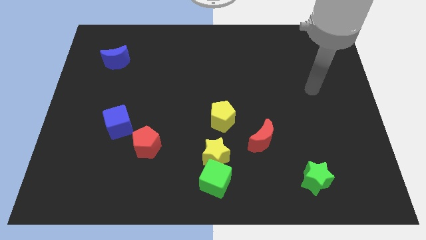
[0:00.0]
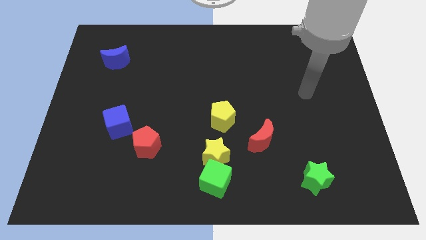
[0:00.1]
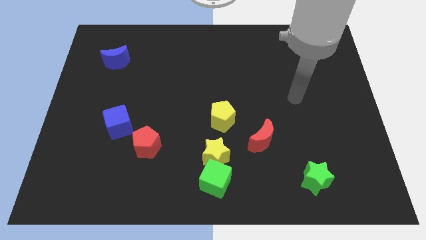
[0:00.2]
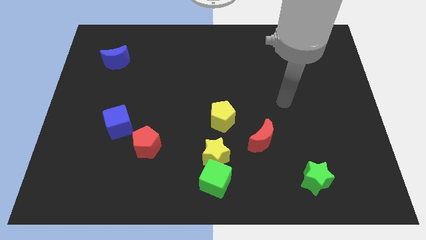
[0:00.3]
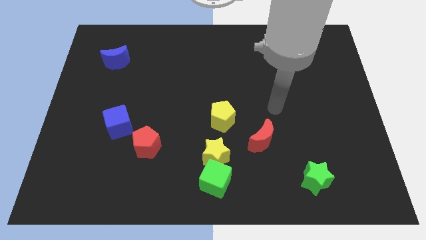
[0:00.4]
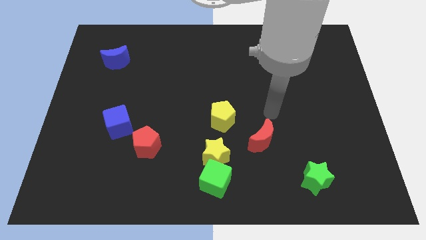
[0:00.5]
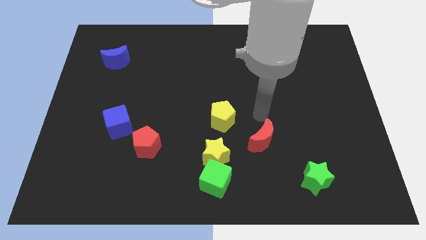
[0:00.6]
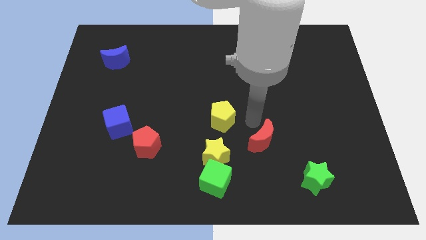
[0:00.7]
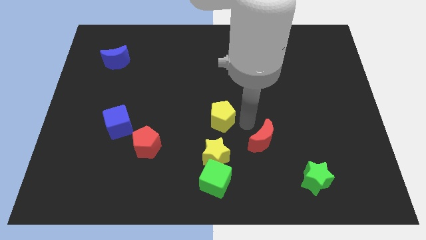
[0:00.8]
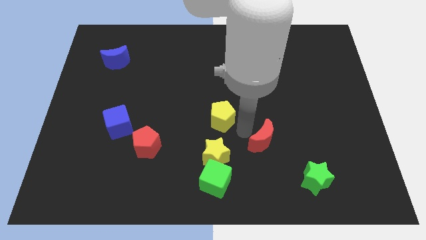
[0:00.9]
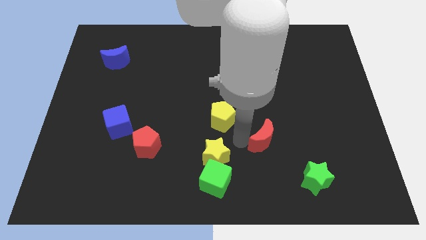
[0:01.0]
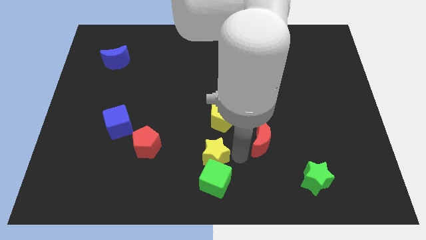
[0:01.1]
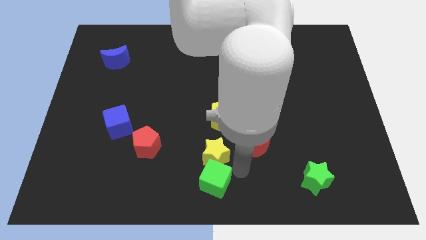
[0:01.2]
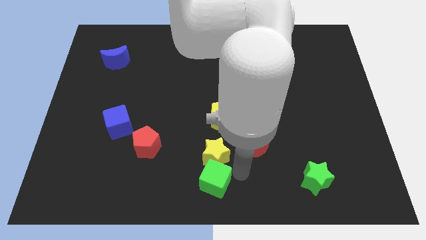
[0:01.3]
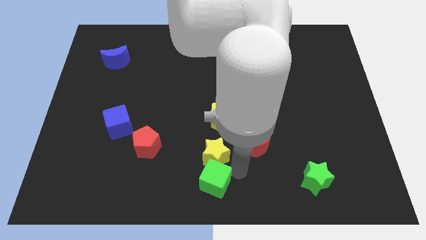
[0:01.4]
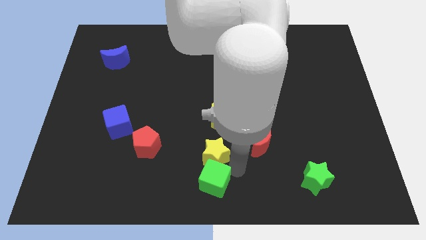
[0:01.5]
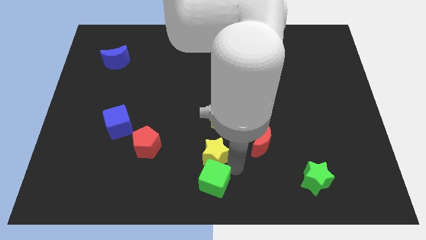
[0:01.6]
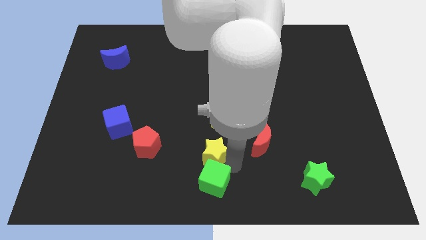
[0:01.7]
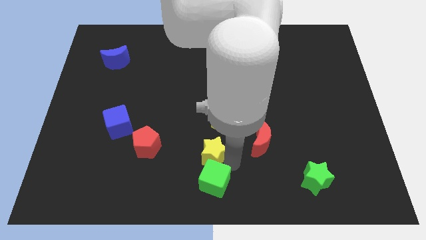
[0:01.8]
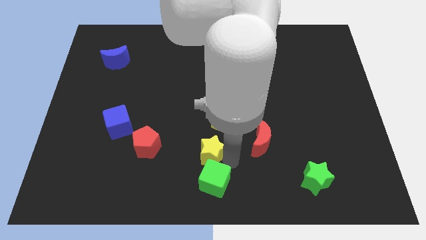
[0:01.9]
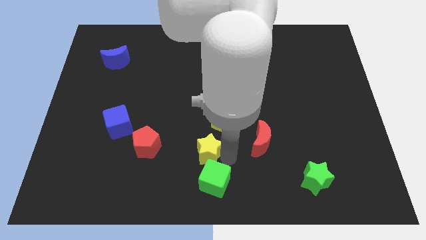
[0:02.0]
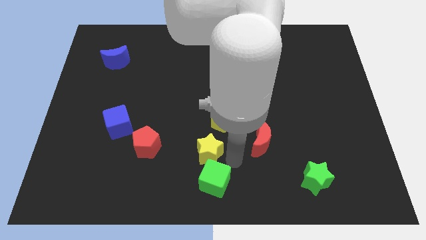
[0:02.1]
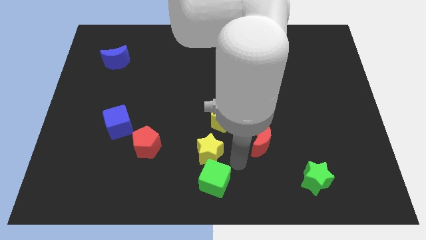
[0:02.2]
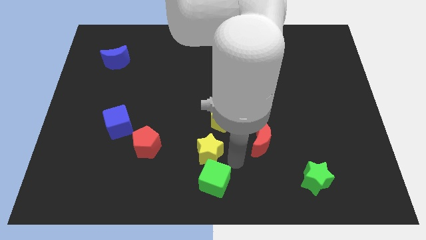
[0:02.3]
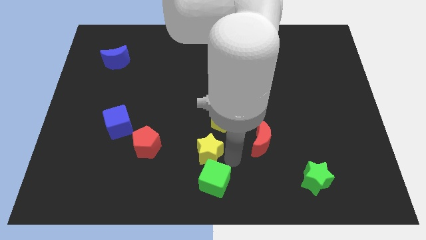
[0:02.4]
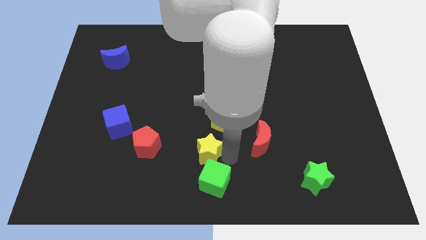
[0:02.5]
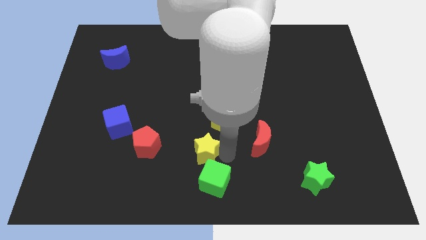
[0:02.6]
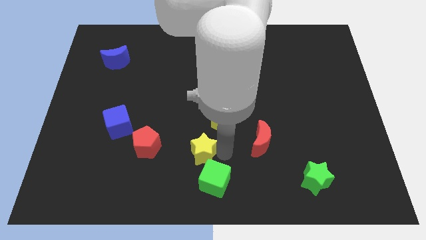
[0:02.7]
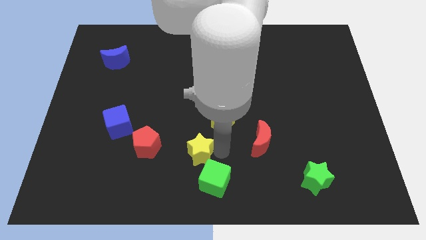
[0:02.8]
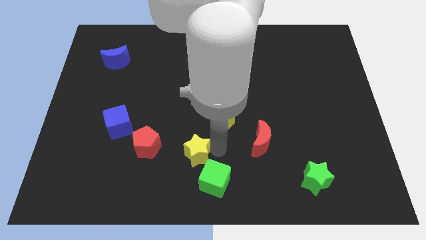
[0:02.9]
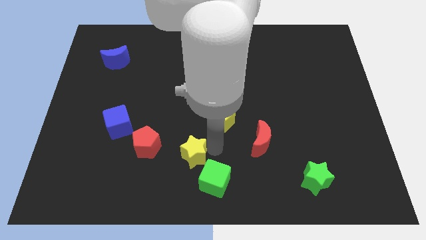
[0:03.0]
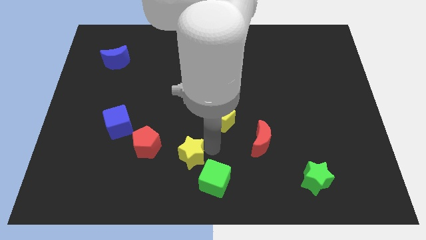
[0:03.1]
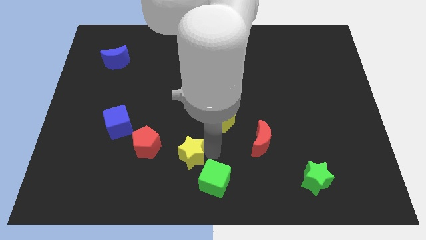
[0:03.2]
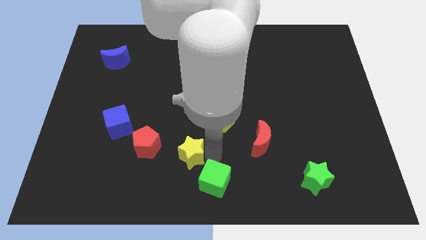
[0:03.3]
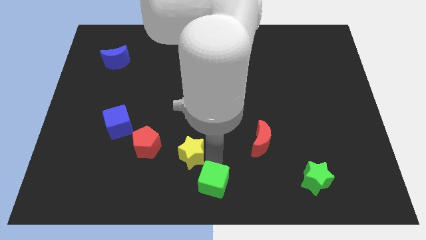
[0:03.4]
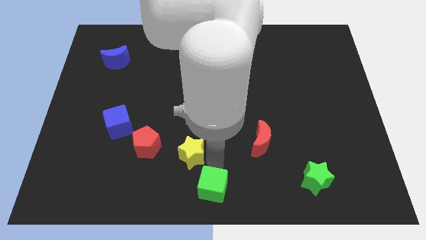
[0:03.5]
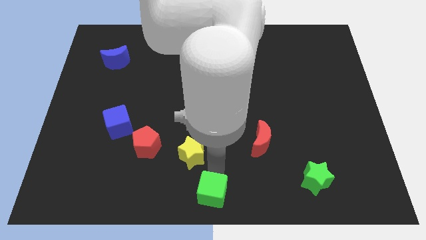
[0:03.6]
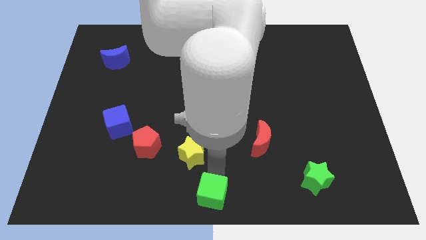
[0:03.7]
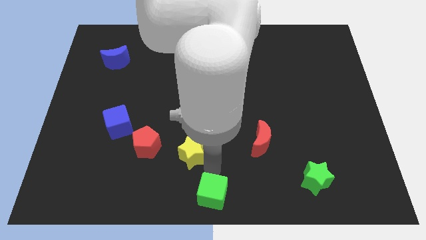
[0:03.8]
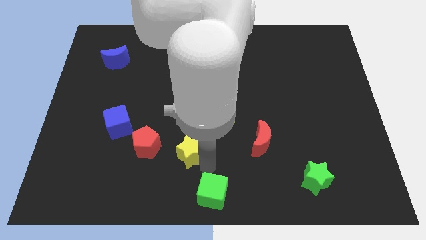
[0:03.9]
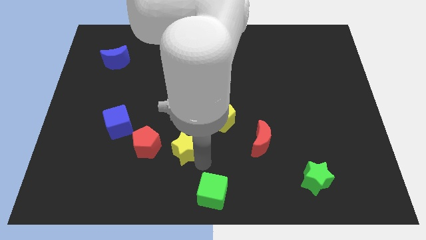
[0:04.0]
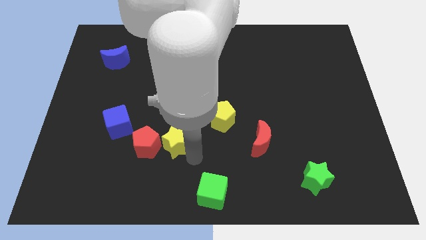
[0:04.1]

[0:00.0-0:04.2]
slightly push the yellow star up and to the left

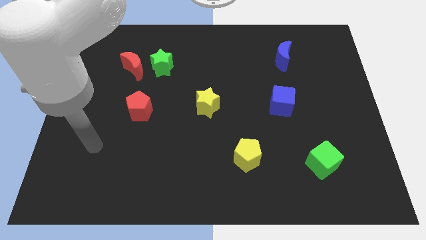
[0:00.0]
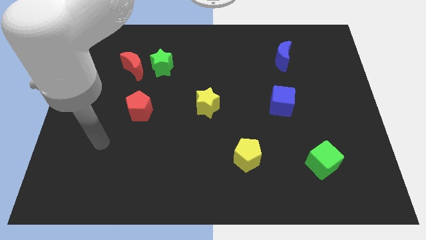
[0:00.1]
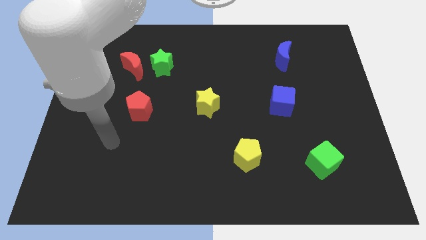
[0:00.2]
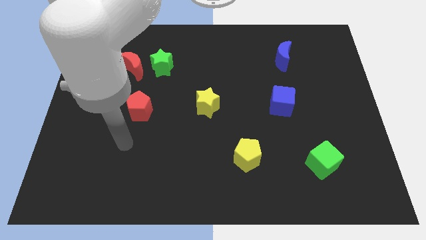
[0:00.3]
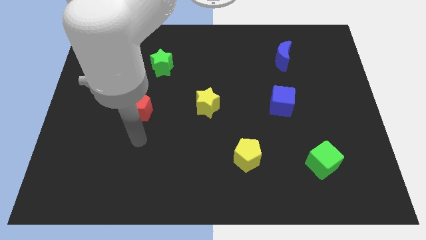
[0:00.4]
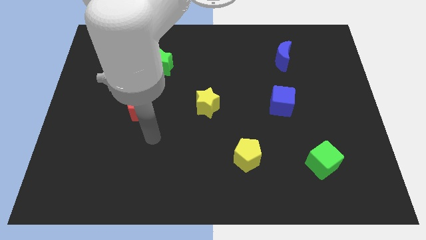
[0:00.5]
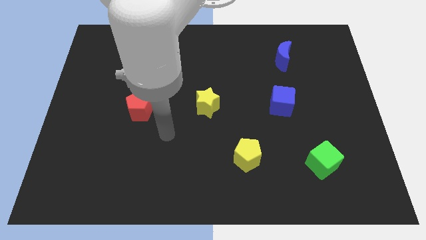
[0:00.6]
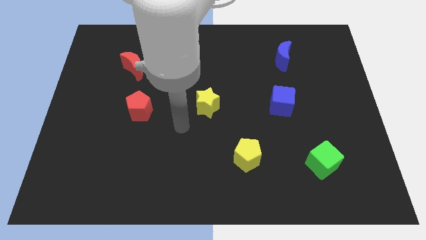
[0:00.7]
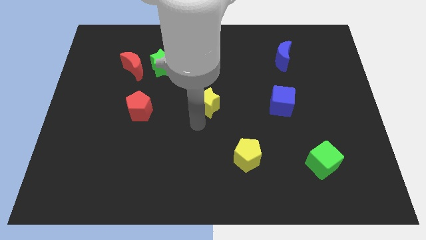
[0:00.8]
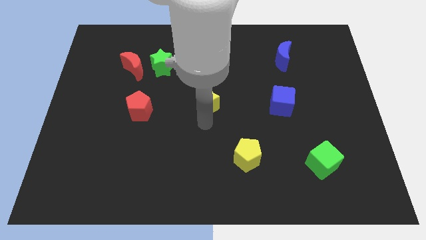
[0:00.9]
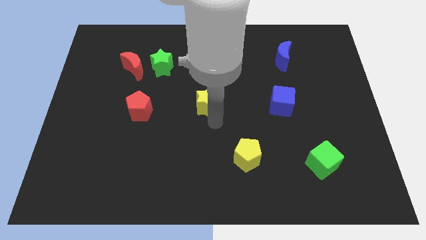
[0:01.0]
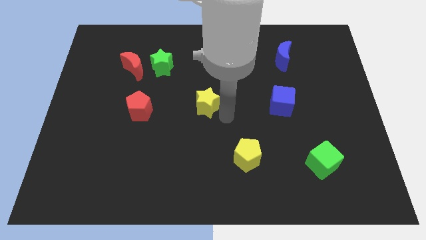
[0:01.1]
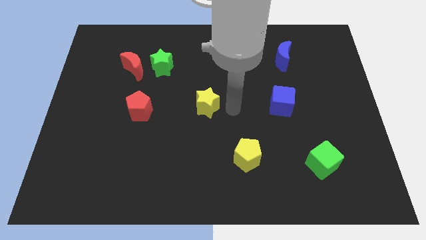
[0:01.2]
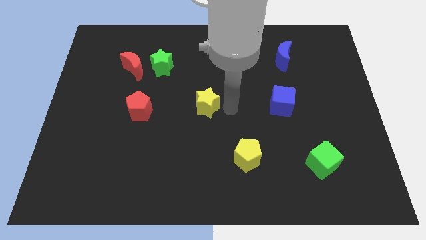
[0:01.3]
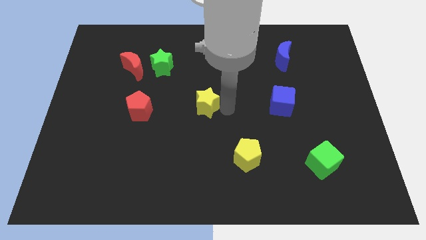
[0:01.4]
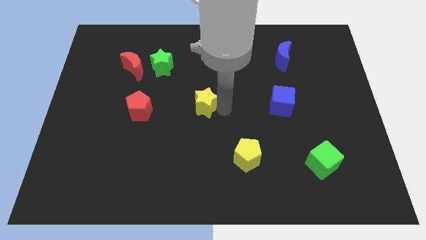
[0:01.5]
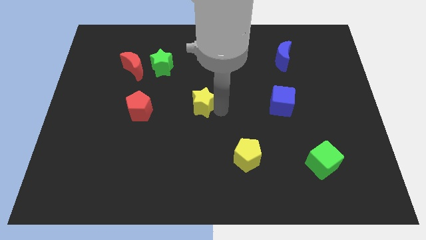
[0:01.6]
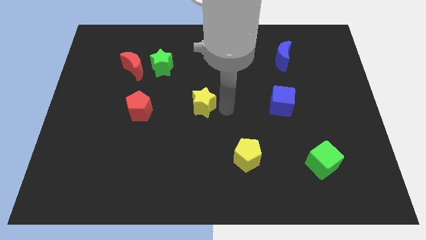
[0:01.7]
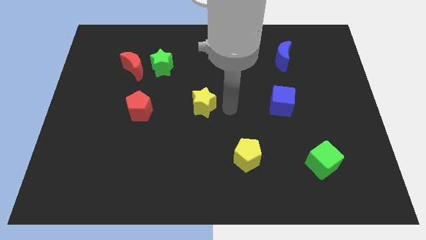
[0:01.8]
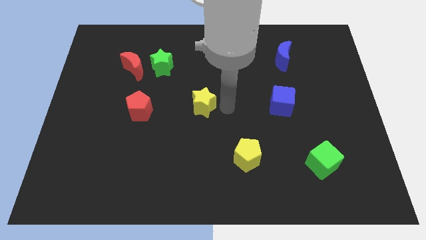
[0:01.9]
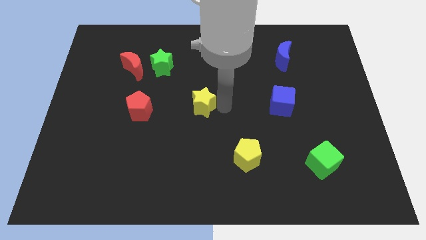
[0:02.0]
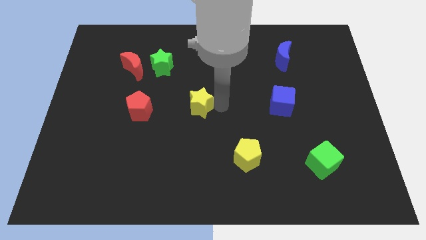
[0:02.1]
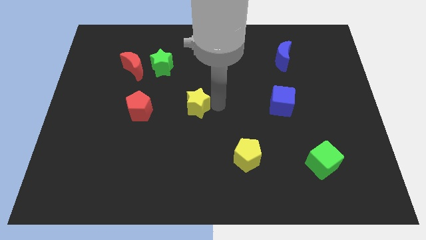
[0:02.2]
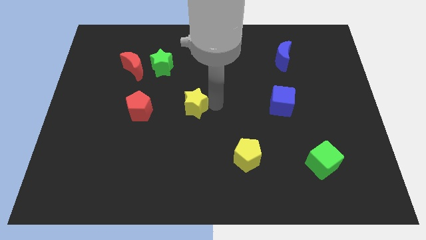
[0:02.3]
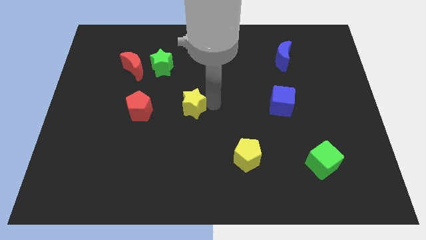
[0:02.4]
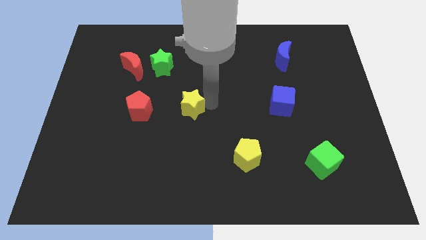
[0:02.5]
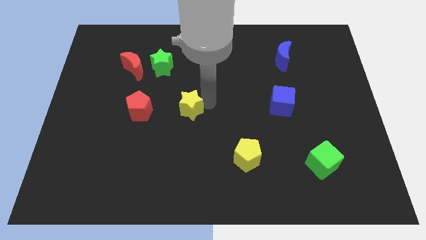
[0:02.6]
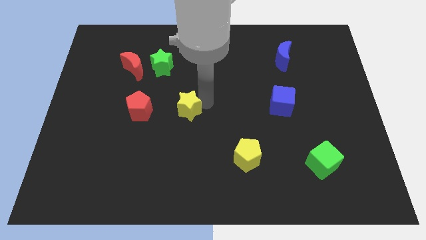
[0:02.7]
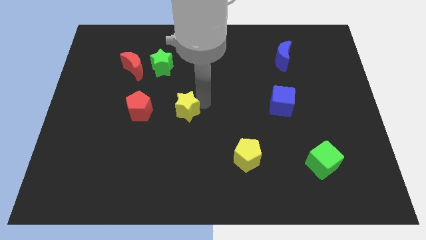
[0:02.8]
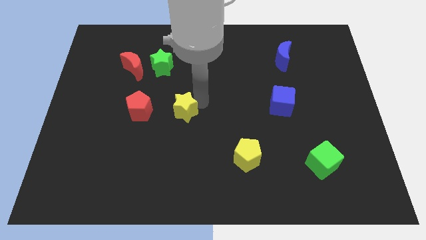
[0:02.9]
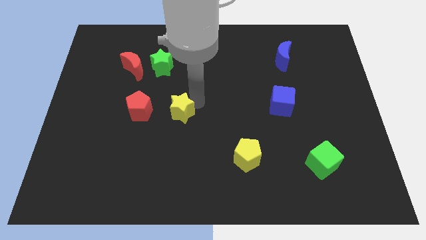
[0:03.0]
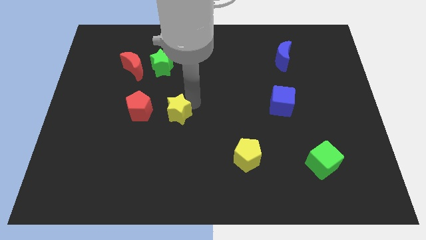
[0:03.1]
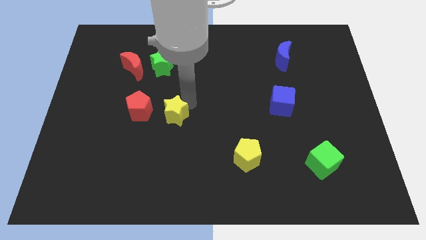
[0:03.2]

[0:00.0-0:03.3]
slightly slide the yellow star to the left

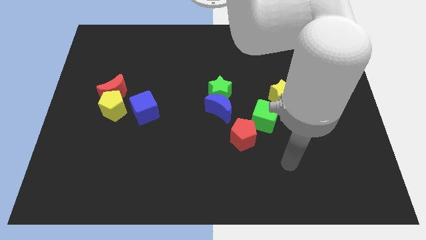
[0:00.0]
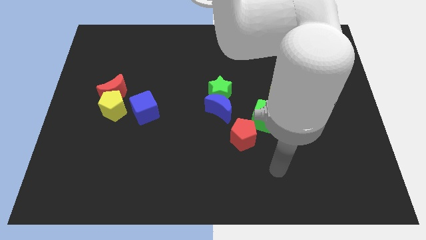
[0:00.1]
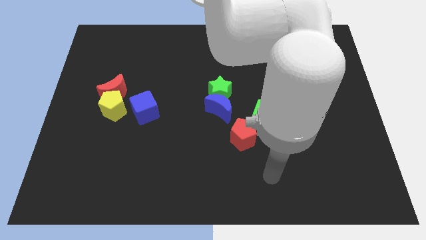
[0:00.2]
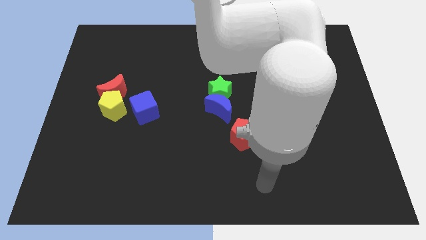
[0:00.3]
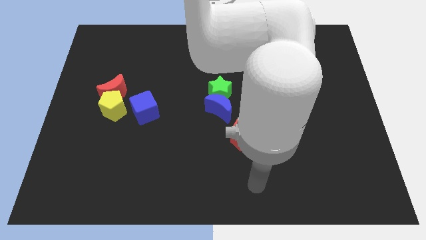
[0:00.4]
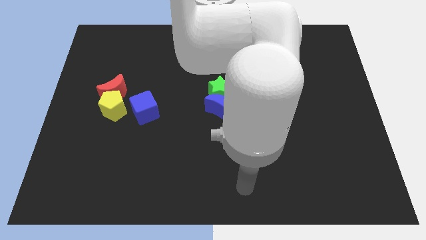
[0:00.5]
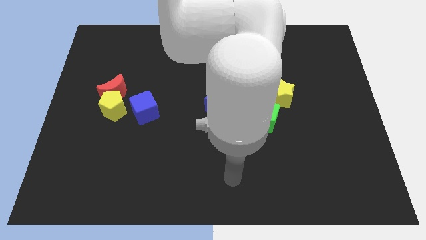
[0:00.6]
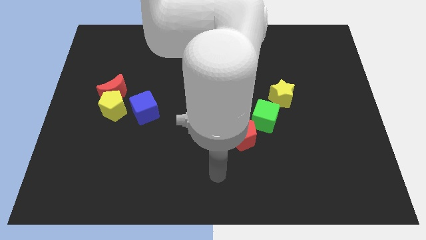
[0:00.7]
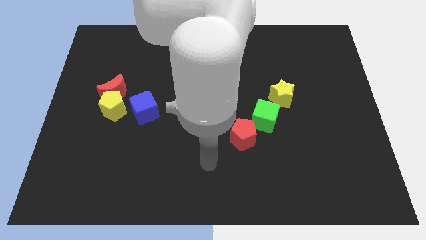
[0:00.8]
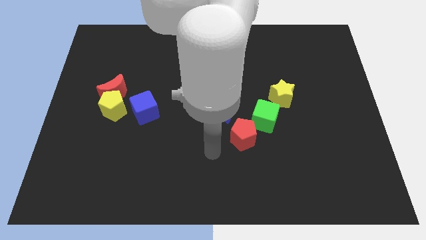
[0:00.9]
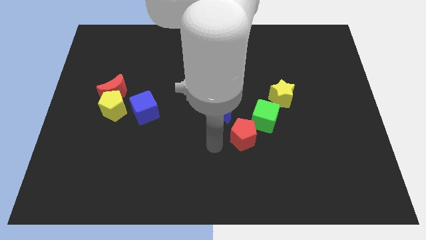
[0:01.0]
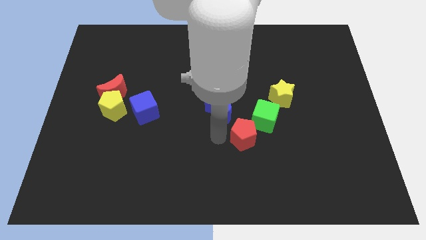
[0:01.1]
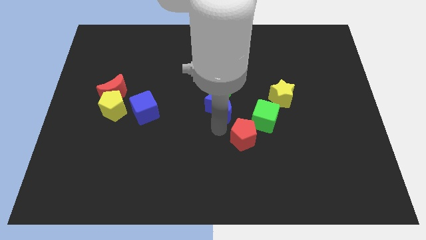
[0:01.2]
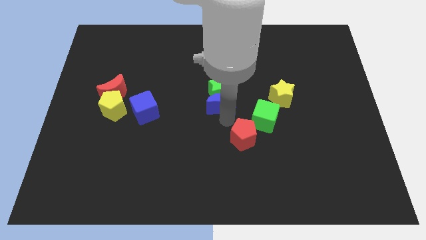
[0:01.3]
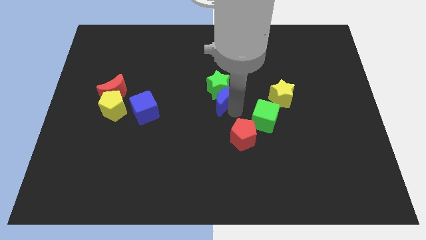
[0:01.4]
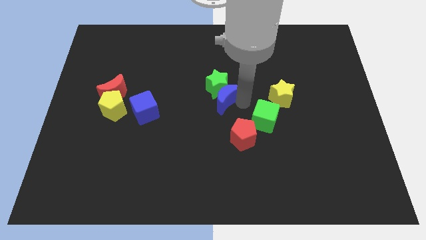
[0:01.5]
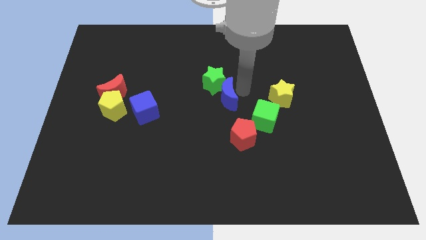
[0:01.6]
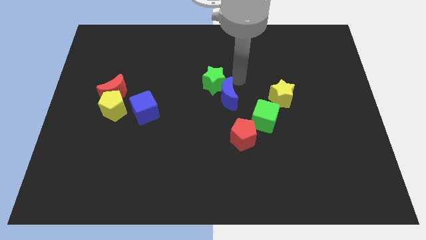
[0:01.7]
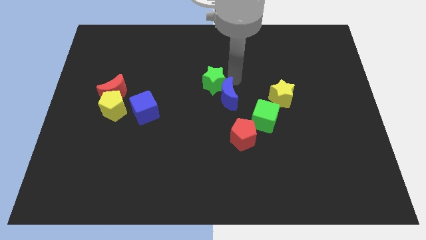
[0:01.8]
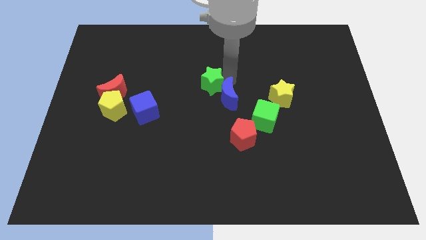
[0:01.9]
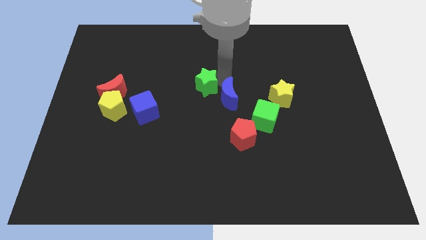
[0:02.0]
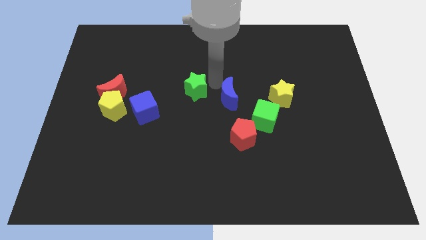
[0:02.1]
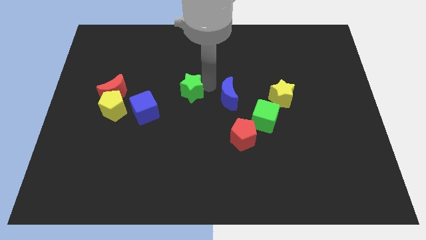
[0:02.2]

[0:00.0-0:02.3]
slightly push the green star left
